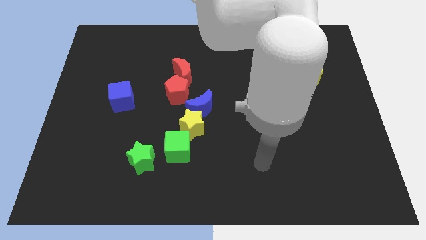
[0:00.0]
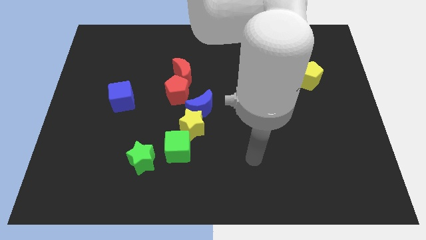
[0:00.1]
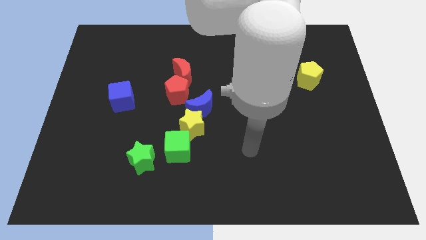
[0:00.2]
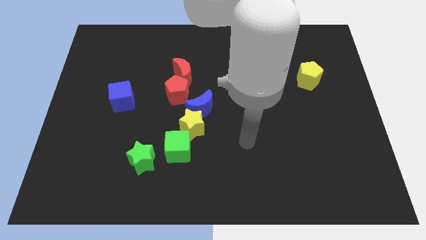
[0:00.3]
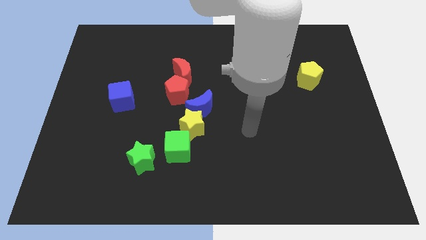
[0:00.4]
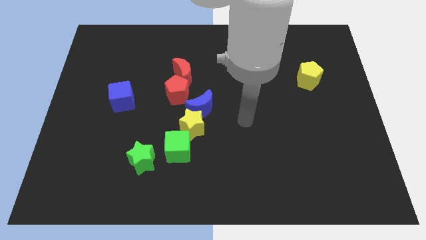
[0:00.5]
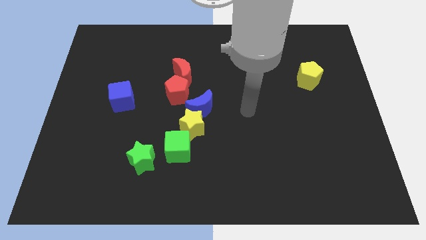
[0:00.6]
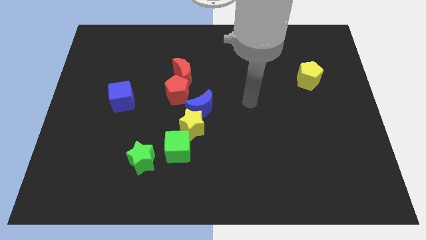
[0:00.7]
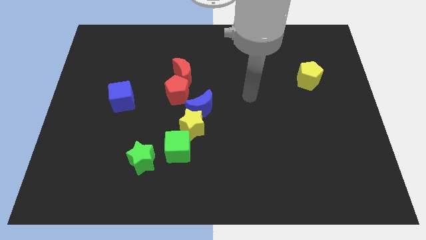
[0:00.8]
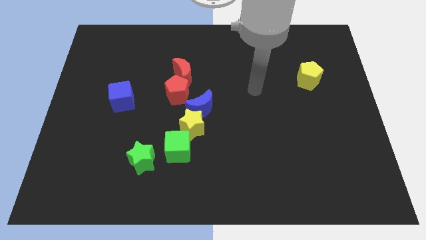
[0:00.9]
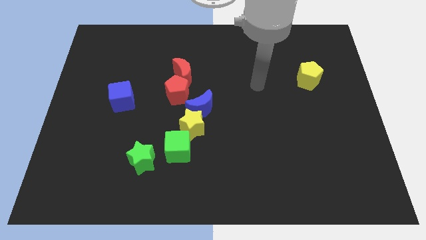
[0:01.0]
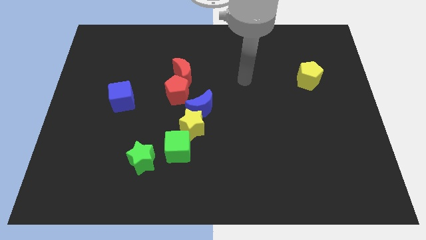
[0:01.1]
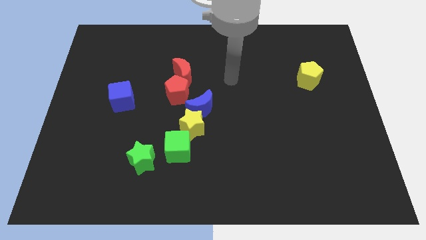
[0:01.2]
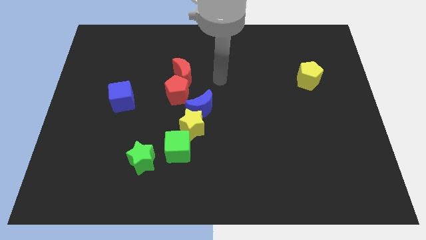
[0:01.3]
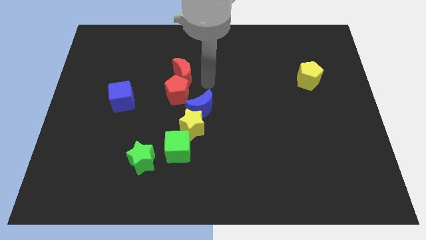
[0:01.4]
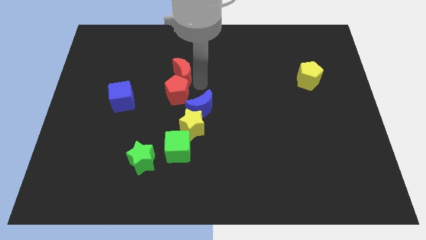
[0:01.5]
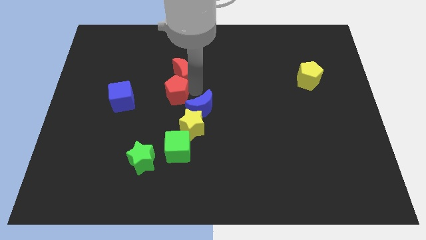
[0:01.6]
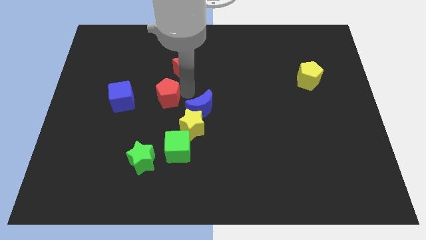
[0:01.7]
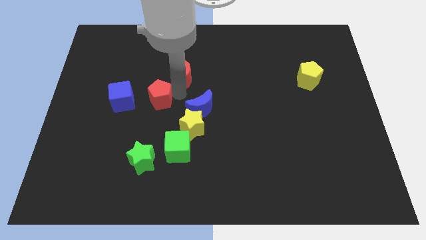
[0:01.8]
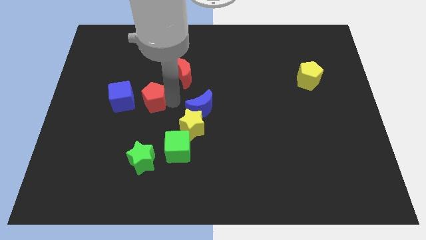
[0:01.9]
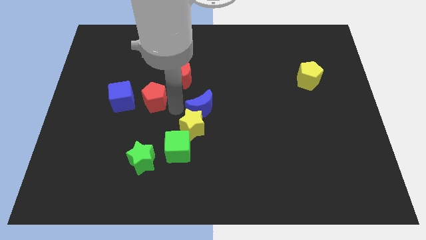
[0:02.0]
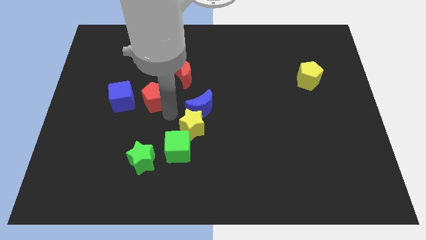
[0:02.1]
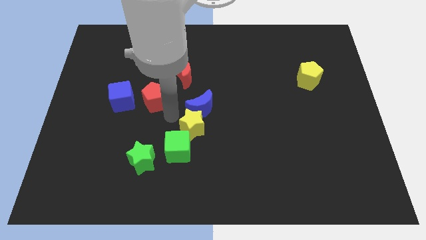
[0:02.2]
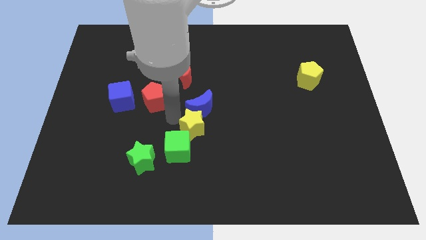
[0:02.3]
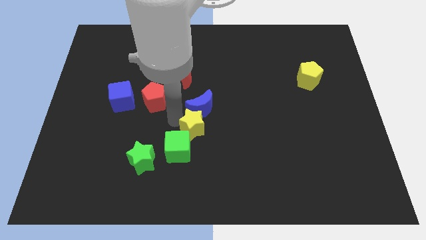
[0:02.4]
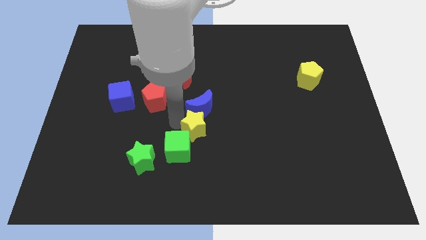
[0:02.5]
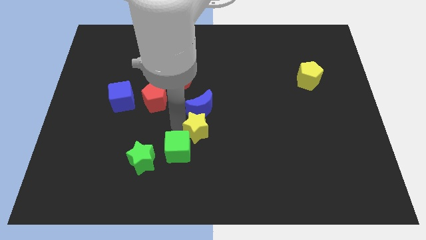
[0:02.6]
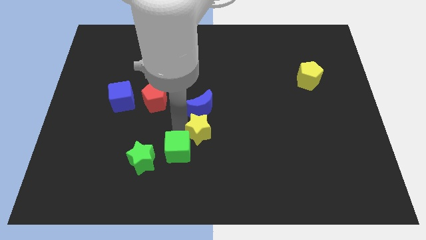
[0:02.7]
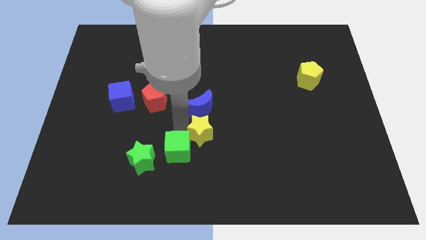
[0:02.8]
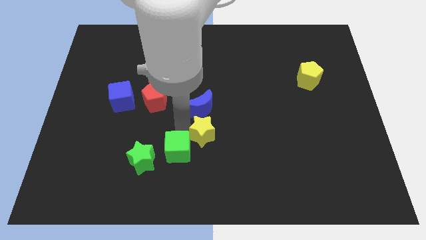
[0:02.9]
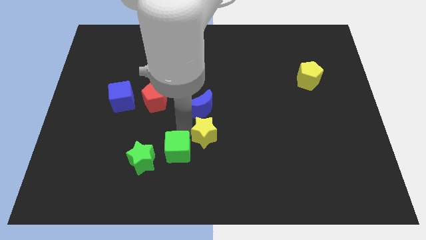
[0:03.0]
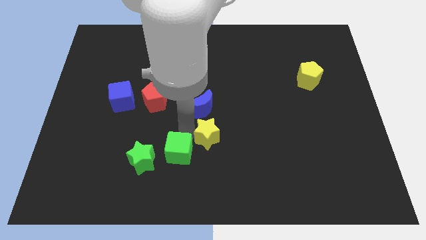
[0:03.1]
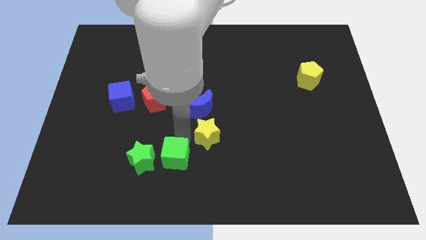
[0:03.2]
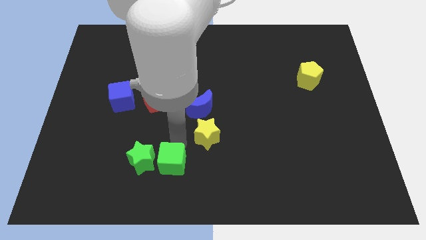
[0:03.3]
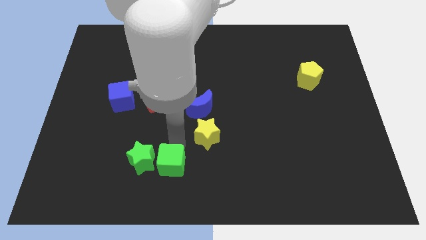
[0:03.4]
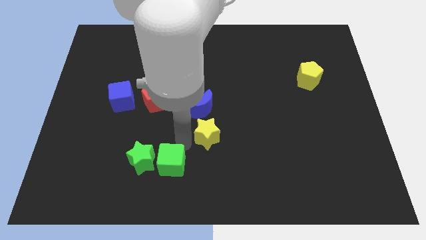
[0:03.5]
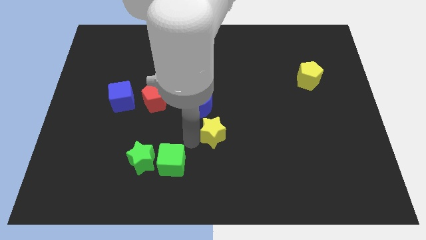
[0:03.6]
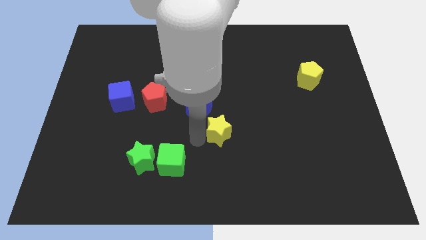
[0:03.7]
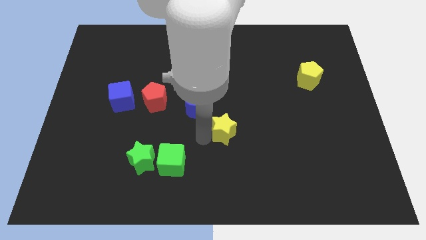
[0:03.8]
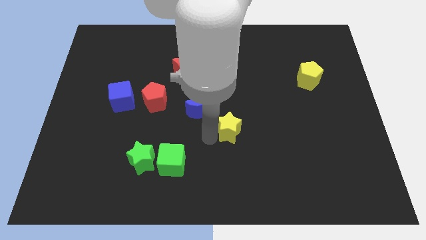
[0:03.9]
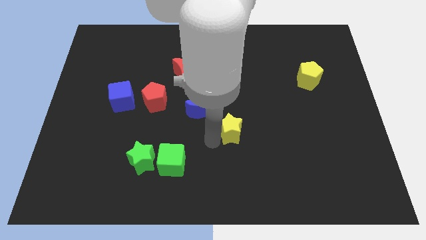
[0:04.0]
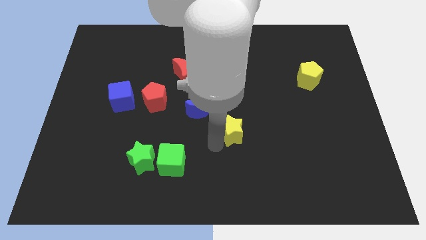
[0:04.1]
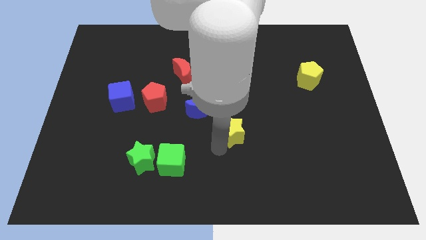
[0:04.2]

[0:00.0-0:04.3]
move the yellow star away from the blue moon and green cube

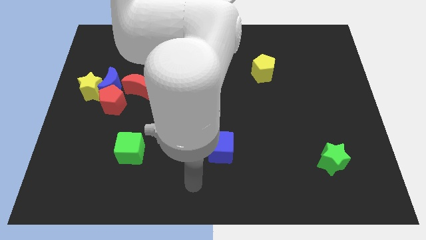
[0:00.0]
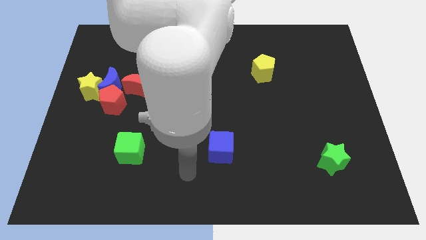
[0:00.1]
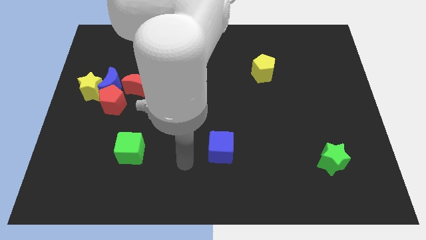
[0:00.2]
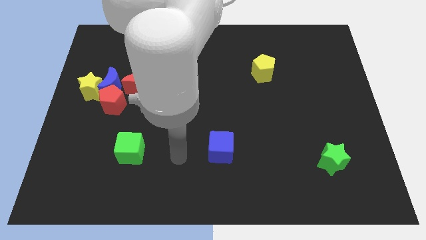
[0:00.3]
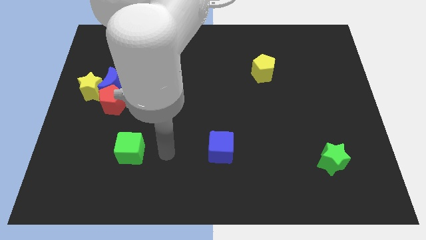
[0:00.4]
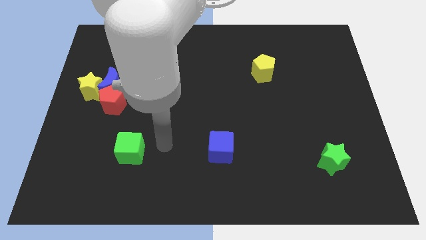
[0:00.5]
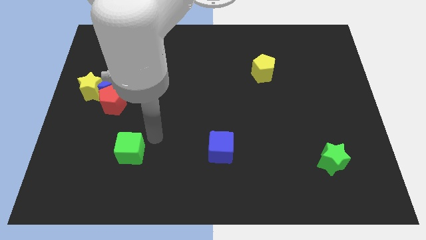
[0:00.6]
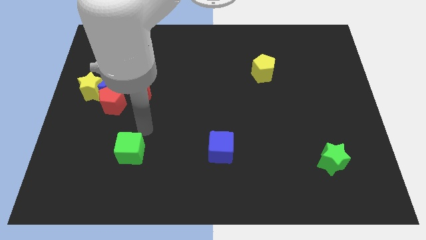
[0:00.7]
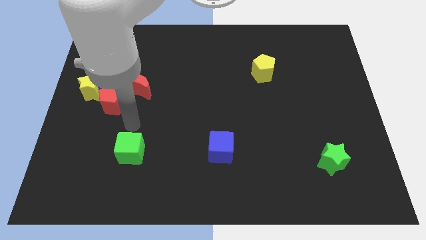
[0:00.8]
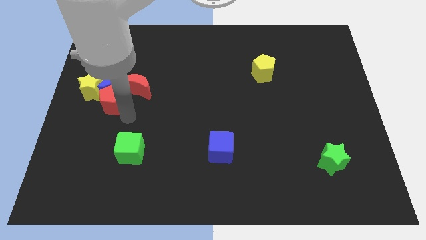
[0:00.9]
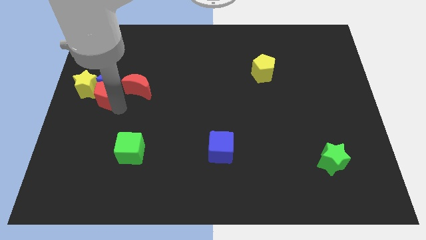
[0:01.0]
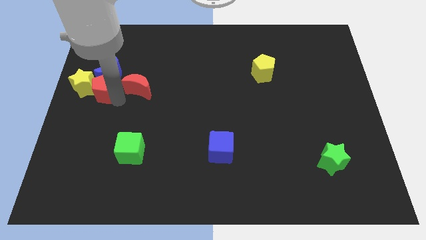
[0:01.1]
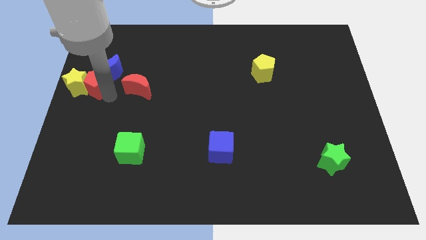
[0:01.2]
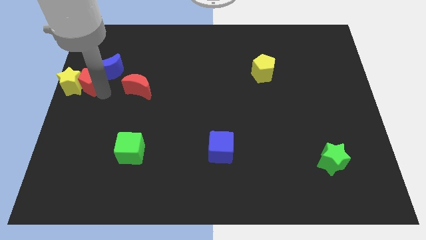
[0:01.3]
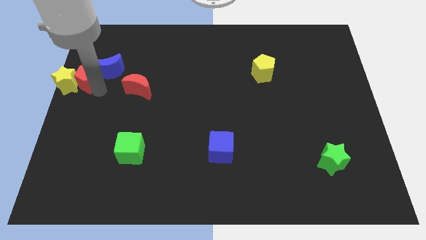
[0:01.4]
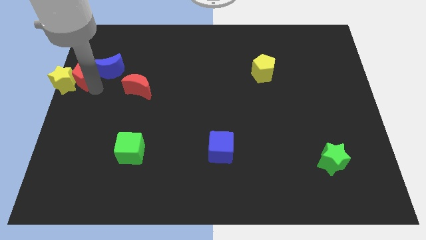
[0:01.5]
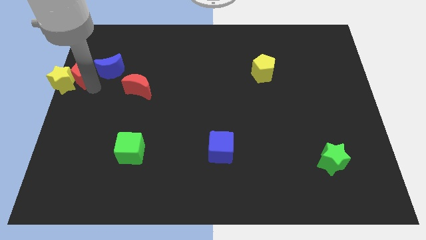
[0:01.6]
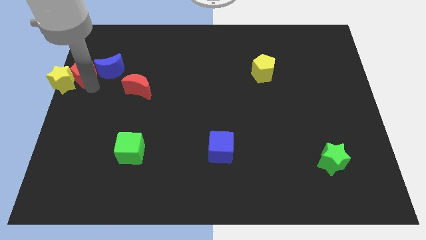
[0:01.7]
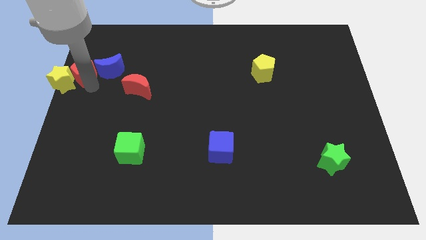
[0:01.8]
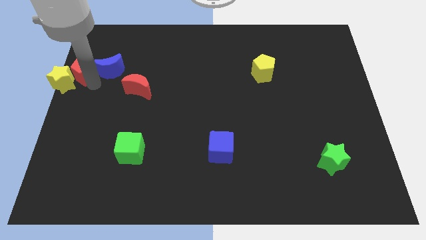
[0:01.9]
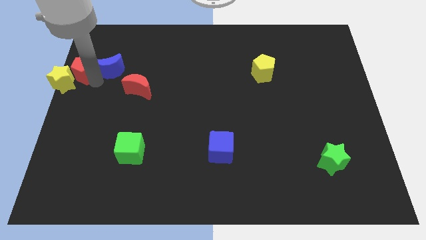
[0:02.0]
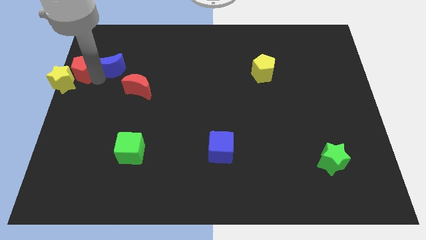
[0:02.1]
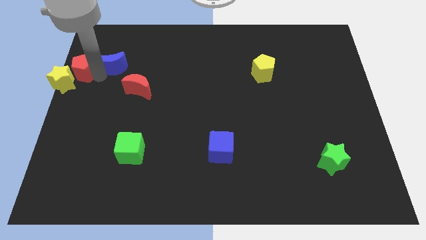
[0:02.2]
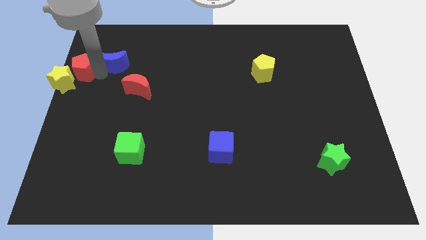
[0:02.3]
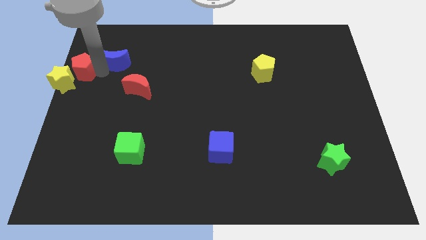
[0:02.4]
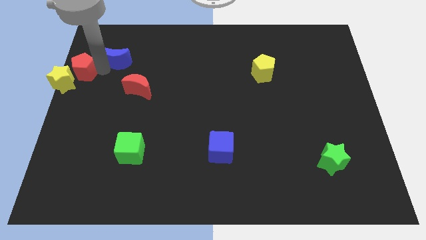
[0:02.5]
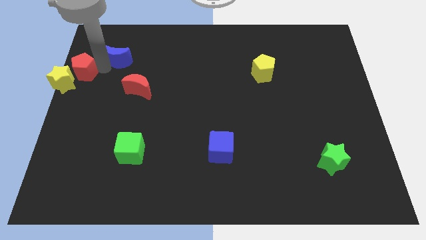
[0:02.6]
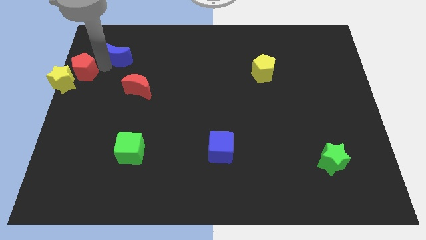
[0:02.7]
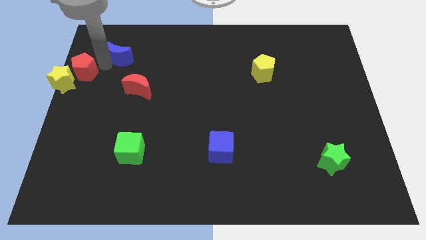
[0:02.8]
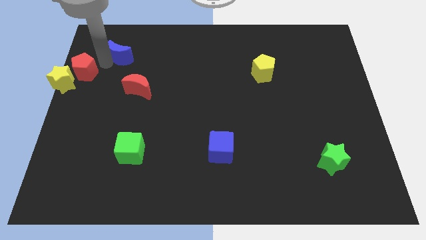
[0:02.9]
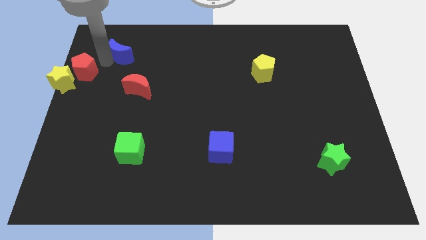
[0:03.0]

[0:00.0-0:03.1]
pull the blue moon apart from the red pentagon, yellow star, and red moon

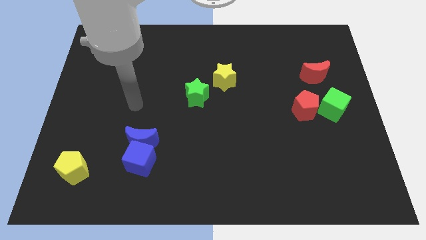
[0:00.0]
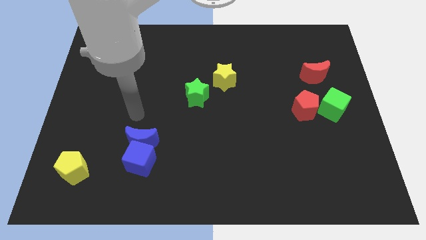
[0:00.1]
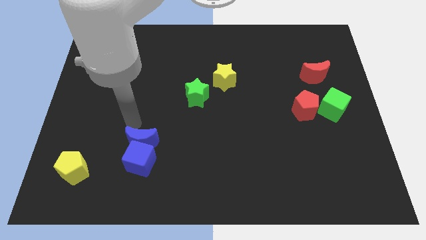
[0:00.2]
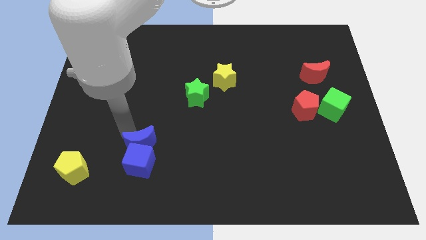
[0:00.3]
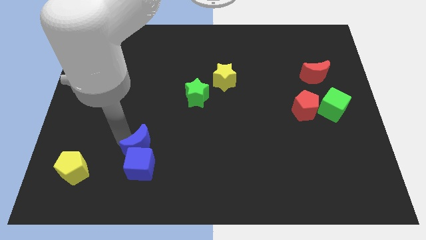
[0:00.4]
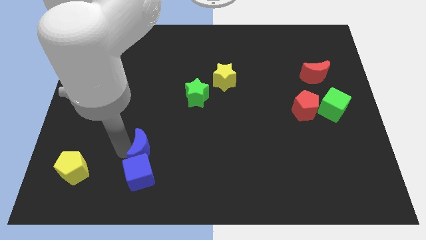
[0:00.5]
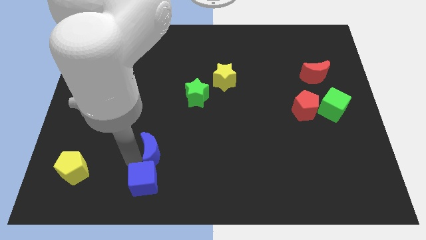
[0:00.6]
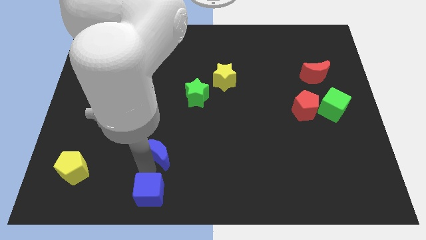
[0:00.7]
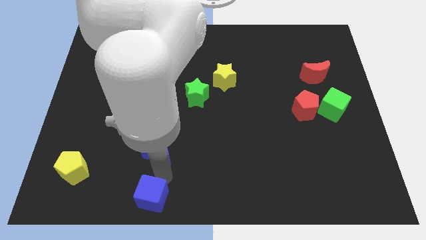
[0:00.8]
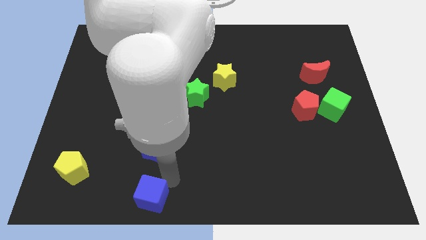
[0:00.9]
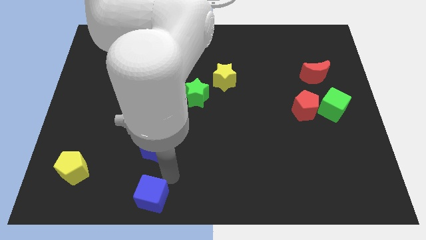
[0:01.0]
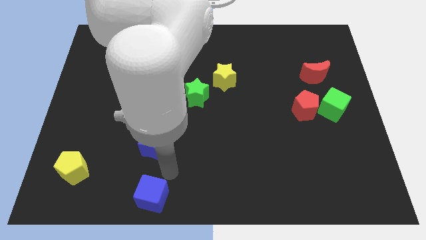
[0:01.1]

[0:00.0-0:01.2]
separate the blue moon from the blue cube

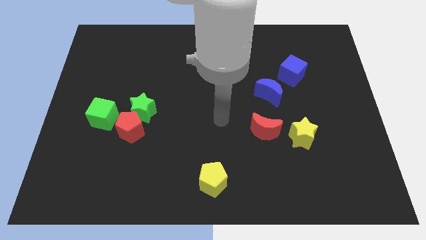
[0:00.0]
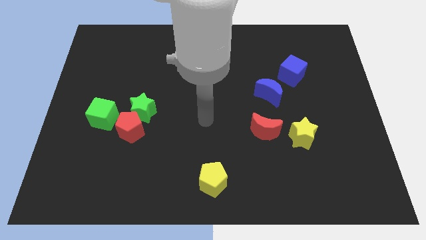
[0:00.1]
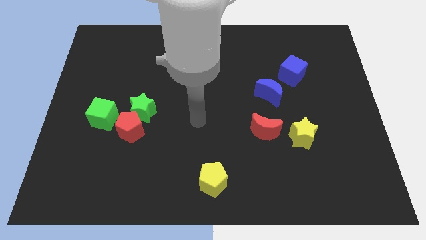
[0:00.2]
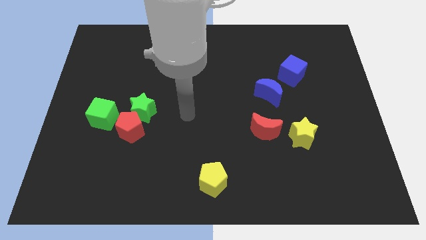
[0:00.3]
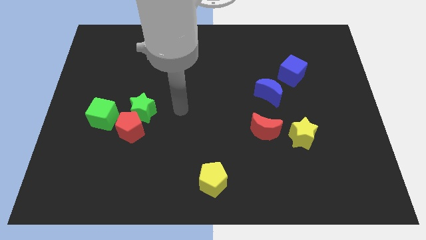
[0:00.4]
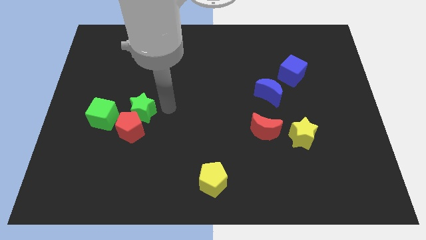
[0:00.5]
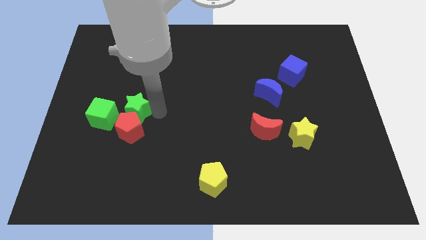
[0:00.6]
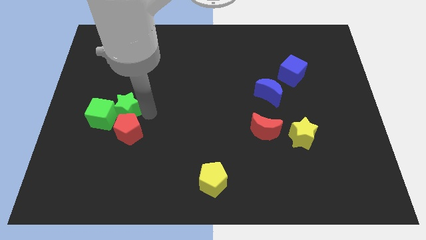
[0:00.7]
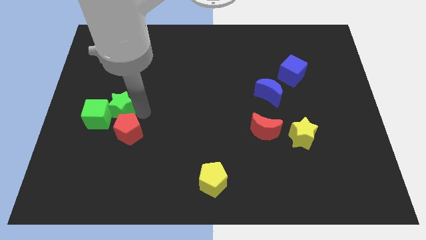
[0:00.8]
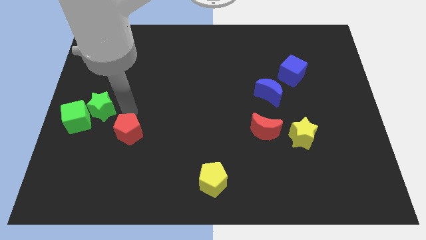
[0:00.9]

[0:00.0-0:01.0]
move the red pentagon away from the green star and green cube
